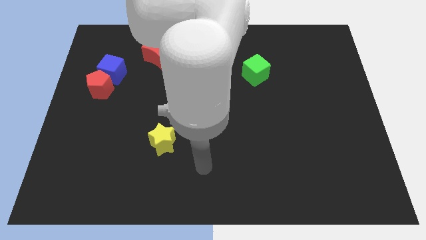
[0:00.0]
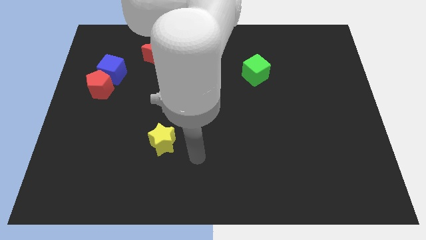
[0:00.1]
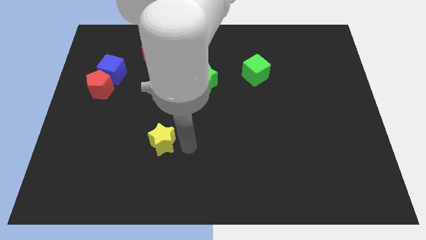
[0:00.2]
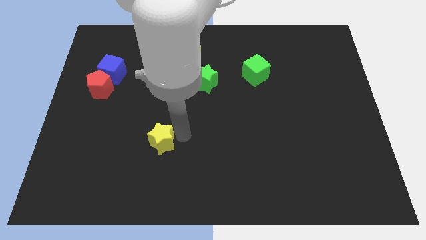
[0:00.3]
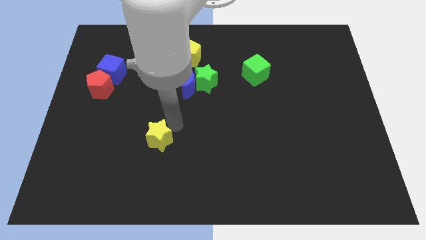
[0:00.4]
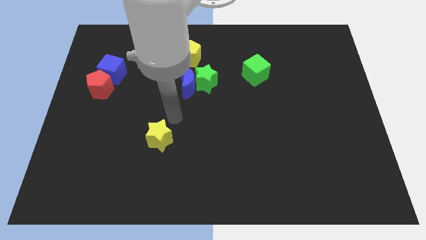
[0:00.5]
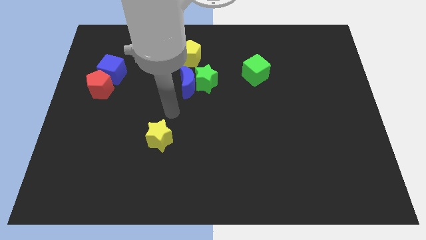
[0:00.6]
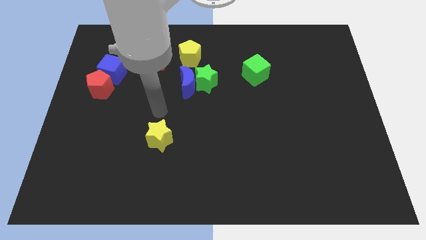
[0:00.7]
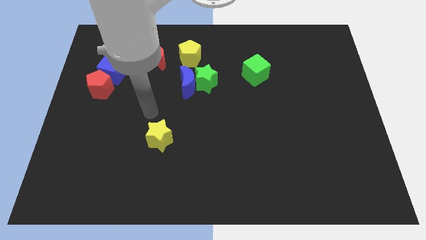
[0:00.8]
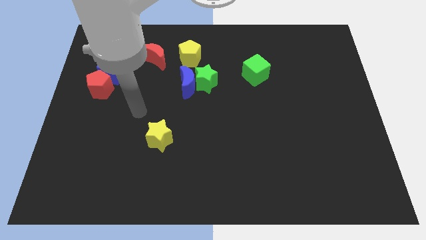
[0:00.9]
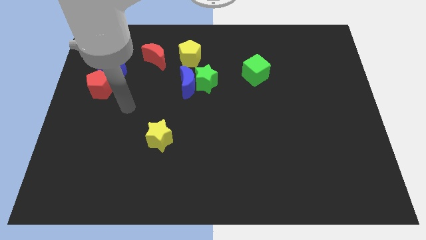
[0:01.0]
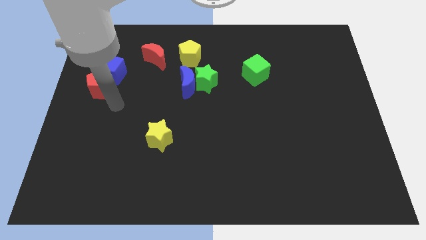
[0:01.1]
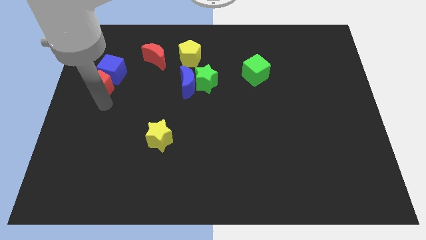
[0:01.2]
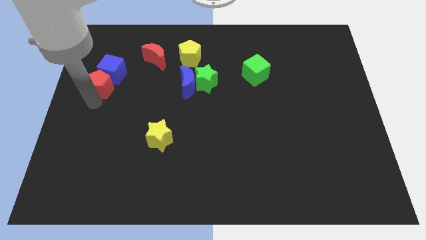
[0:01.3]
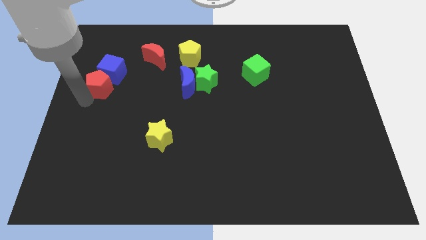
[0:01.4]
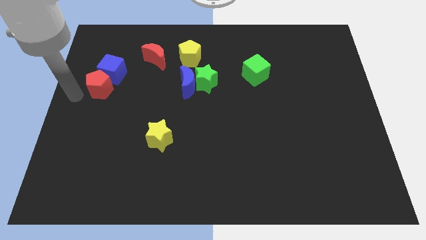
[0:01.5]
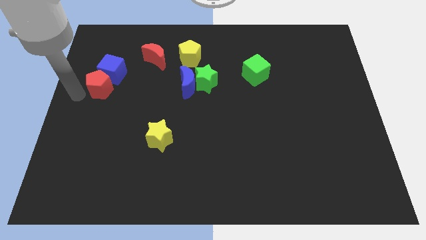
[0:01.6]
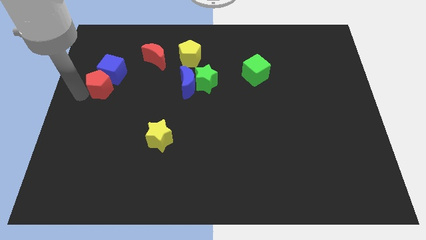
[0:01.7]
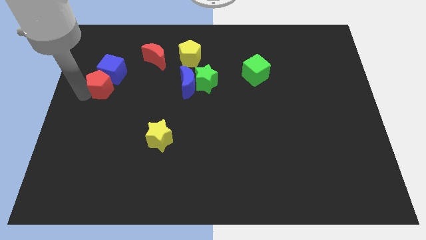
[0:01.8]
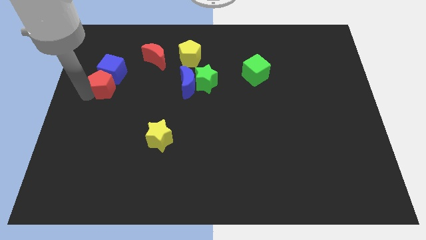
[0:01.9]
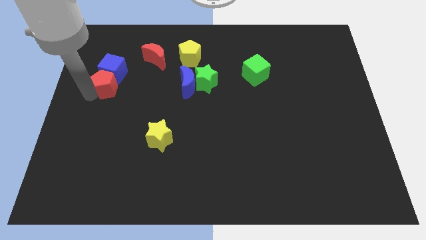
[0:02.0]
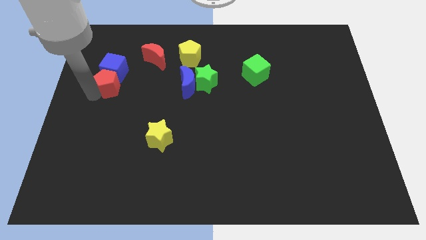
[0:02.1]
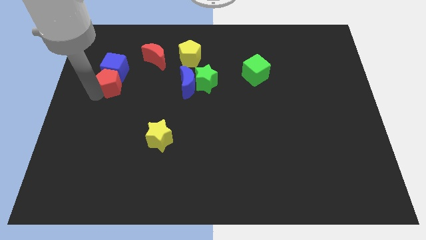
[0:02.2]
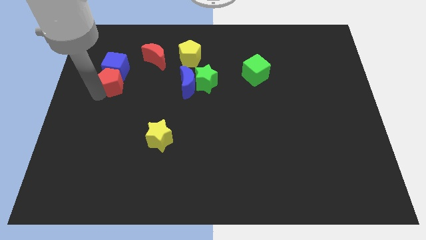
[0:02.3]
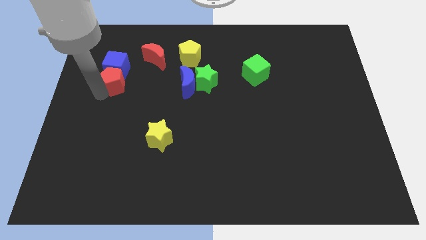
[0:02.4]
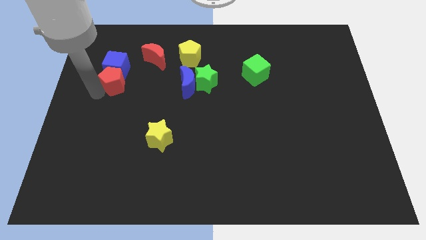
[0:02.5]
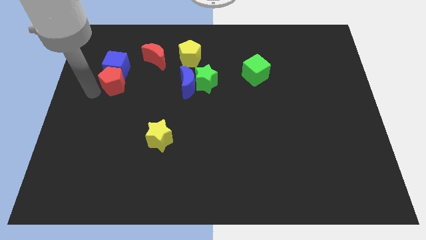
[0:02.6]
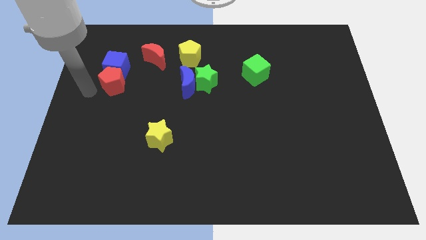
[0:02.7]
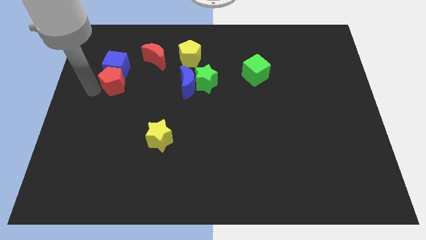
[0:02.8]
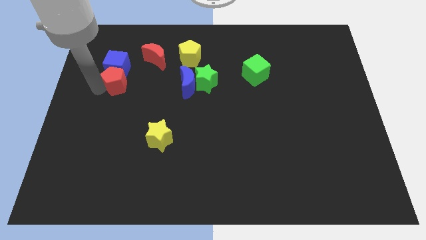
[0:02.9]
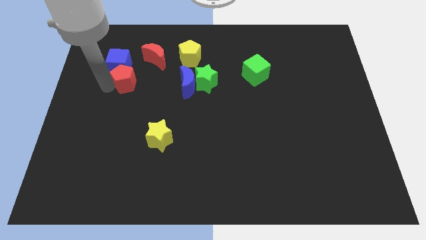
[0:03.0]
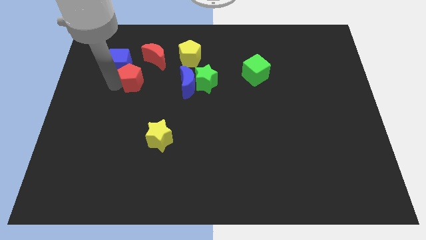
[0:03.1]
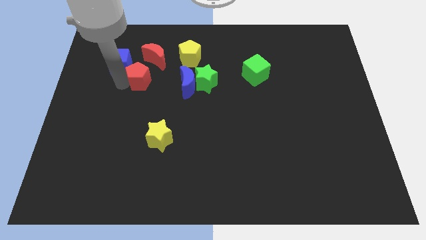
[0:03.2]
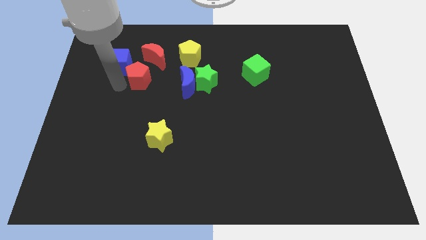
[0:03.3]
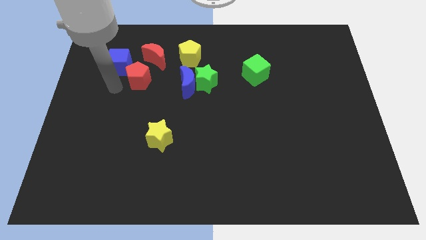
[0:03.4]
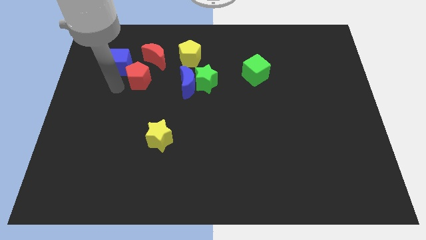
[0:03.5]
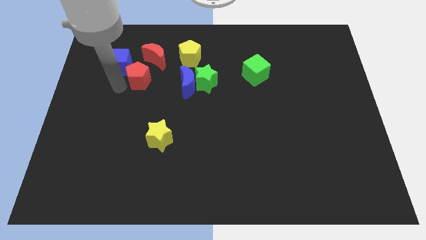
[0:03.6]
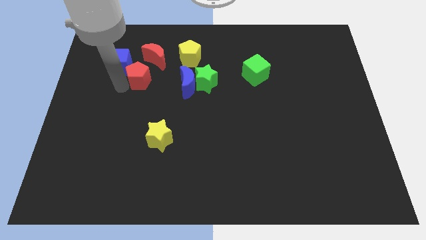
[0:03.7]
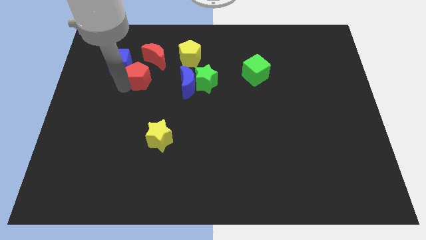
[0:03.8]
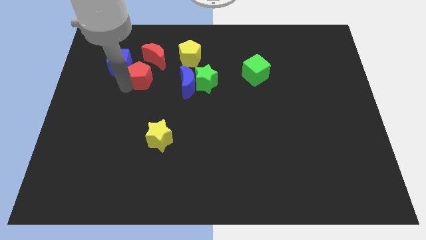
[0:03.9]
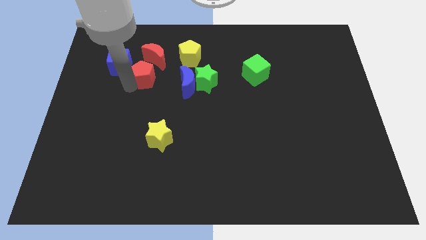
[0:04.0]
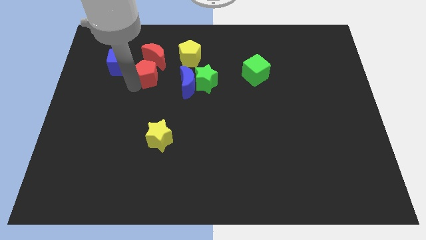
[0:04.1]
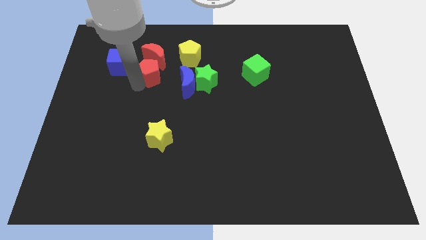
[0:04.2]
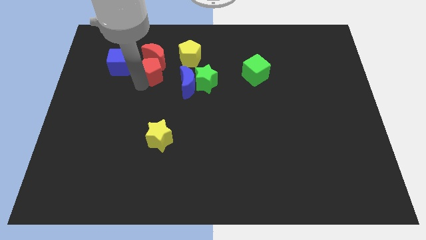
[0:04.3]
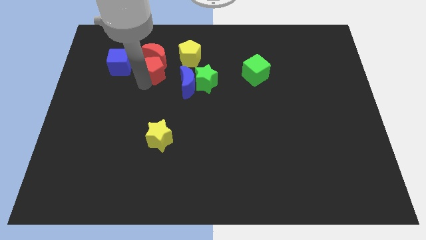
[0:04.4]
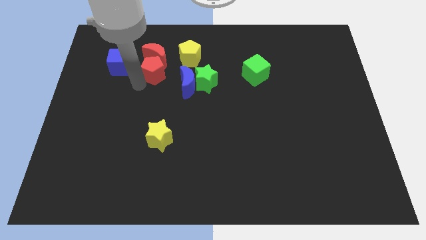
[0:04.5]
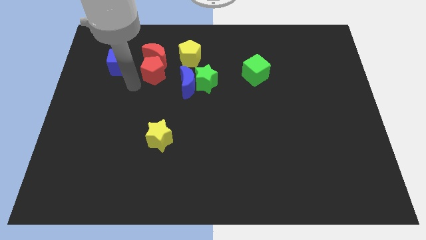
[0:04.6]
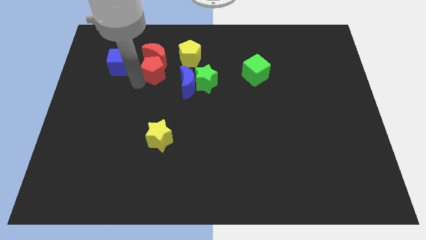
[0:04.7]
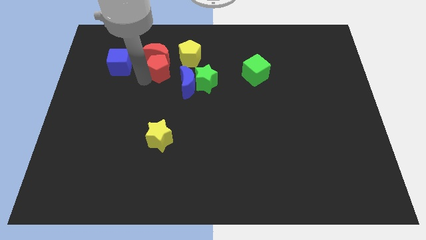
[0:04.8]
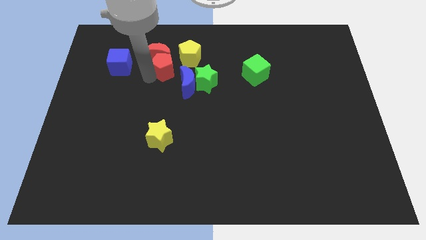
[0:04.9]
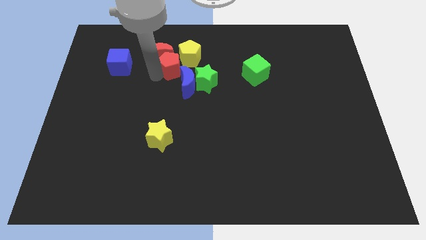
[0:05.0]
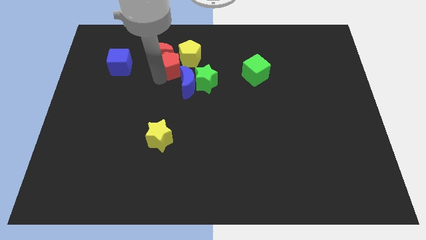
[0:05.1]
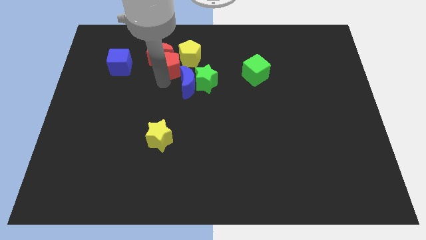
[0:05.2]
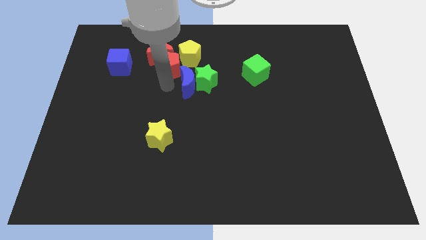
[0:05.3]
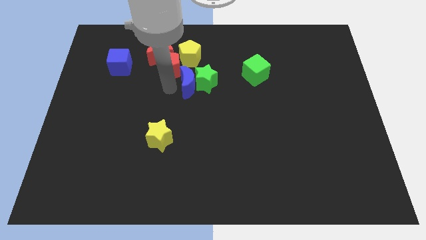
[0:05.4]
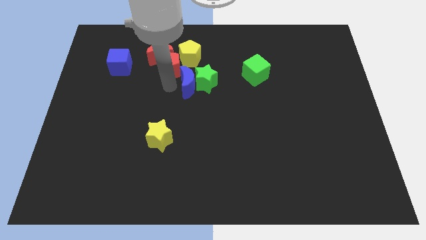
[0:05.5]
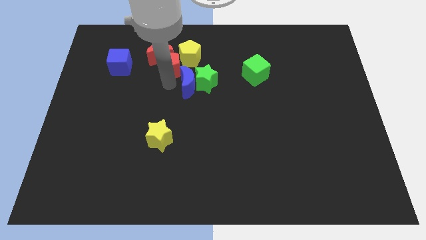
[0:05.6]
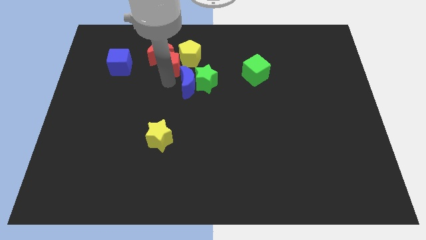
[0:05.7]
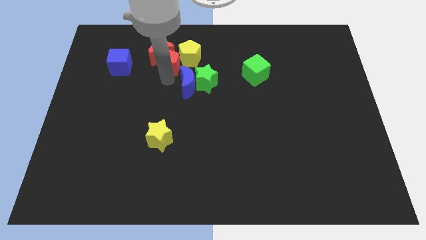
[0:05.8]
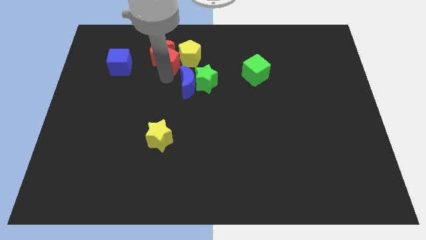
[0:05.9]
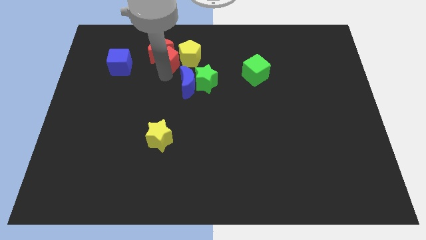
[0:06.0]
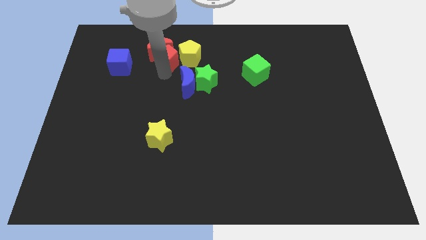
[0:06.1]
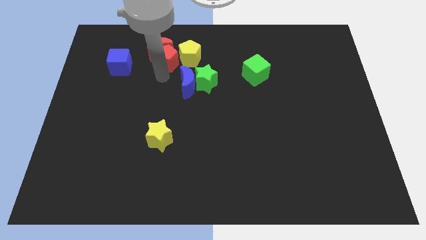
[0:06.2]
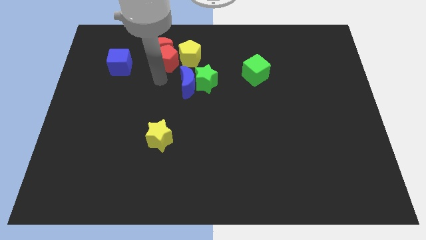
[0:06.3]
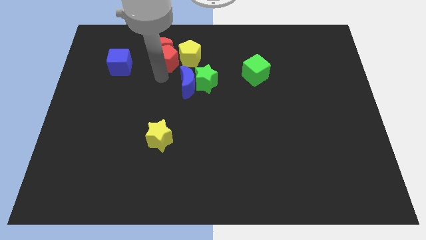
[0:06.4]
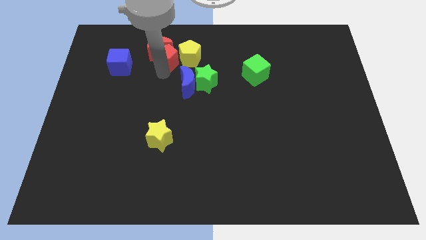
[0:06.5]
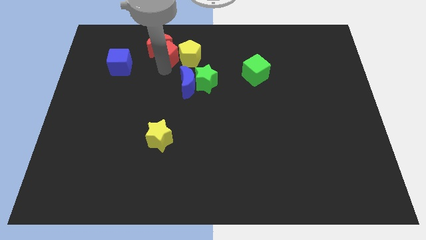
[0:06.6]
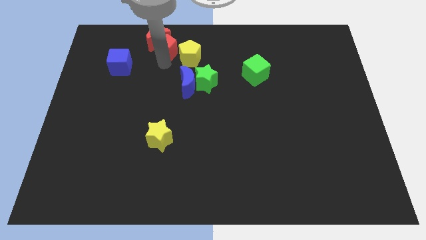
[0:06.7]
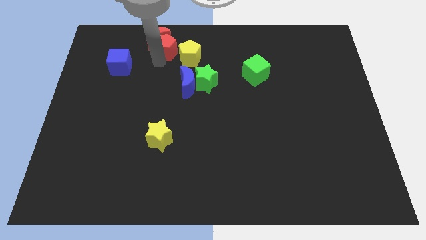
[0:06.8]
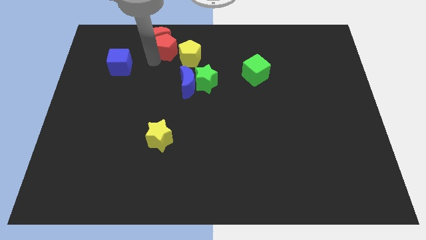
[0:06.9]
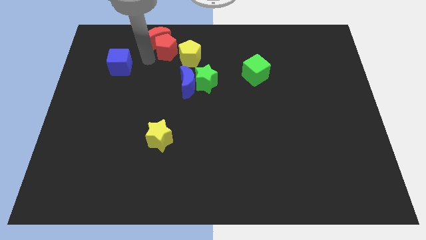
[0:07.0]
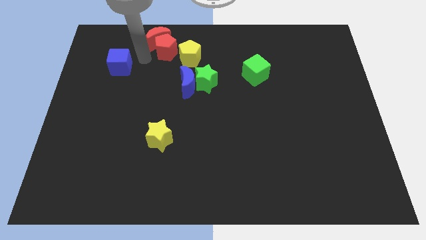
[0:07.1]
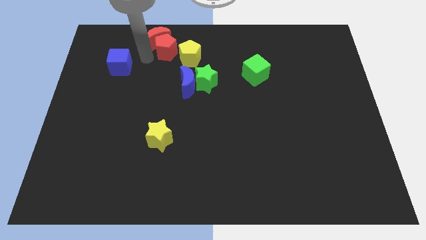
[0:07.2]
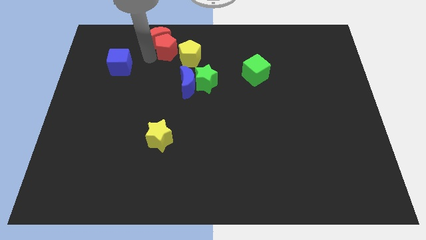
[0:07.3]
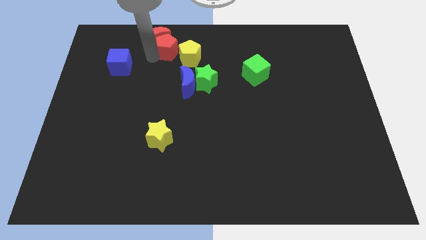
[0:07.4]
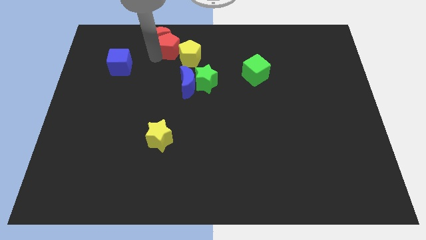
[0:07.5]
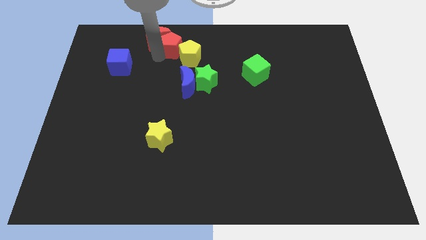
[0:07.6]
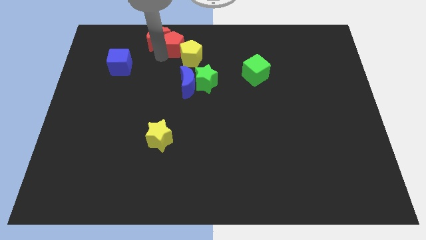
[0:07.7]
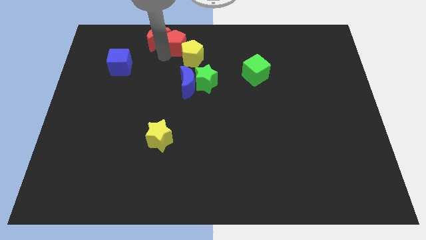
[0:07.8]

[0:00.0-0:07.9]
put the red pentagon to the top side
